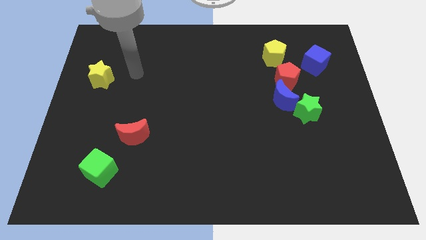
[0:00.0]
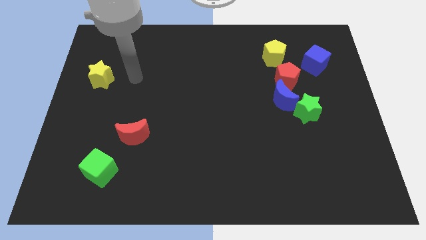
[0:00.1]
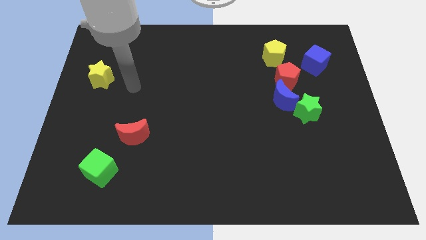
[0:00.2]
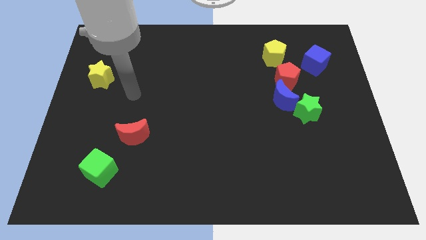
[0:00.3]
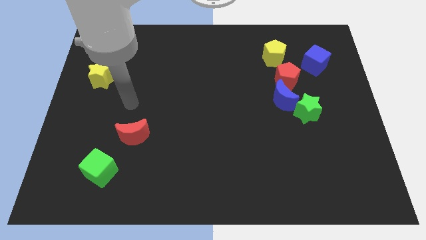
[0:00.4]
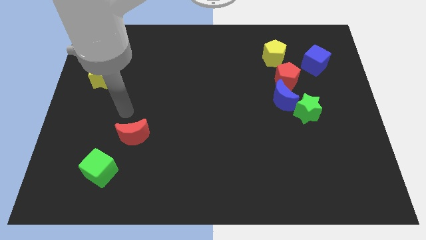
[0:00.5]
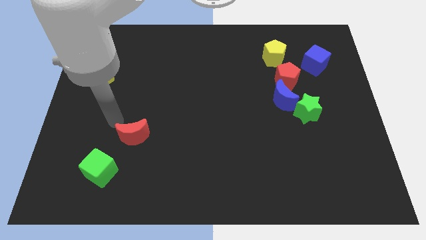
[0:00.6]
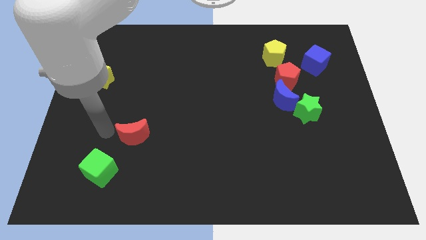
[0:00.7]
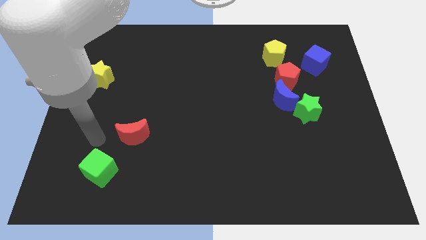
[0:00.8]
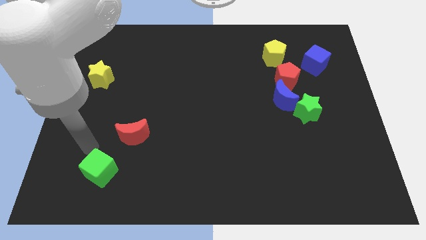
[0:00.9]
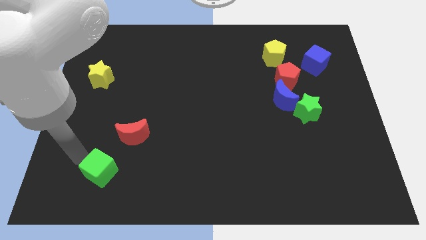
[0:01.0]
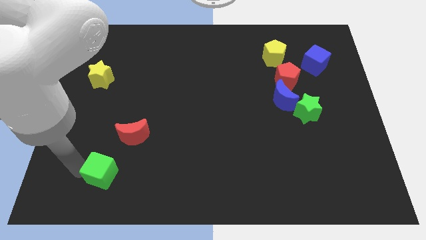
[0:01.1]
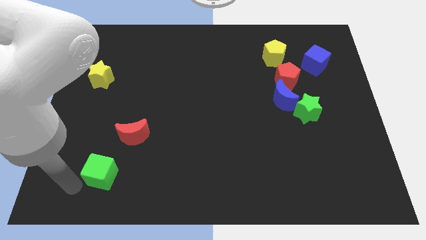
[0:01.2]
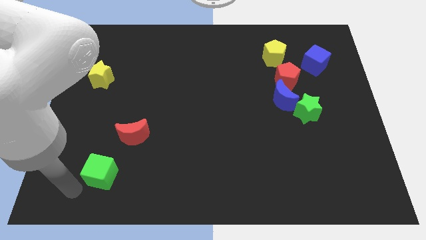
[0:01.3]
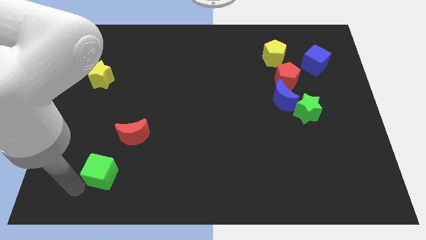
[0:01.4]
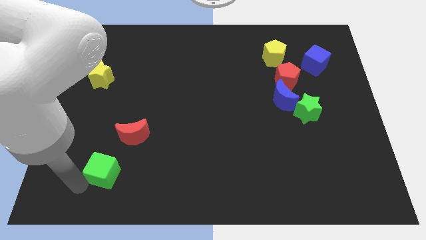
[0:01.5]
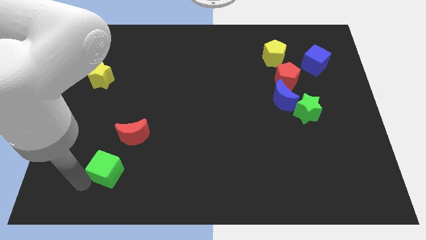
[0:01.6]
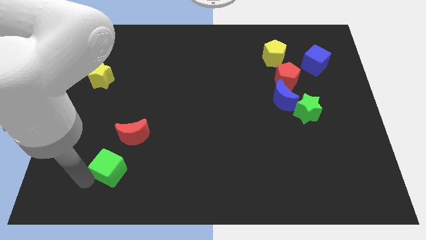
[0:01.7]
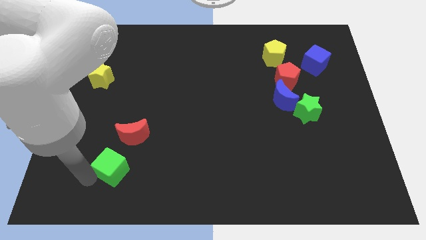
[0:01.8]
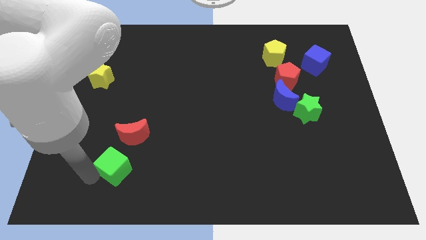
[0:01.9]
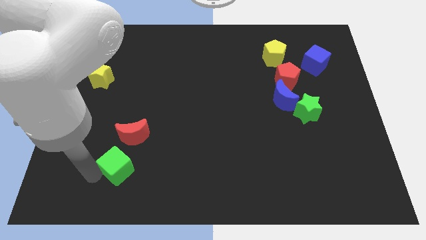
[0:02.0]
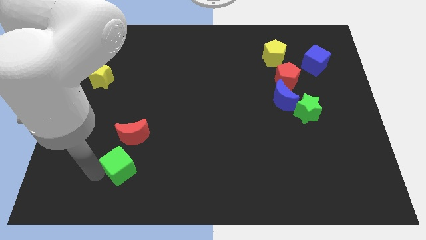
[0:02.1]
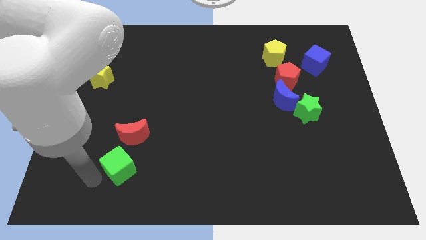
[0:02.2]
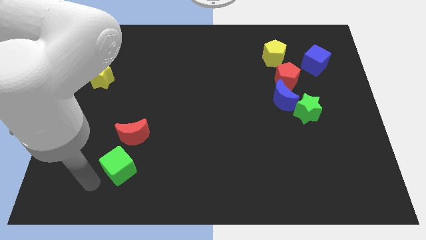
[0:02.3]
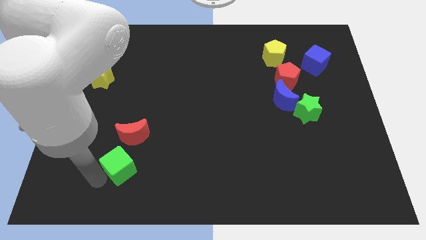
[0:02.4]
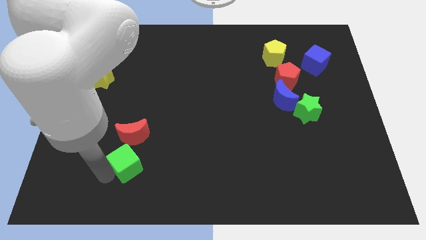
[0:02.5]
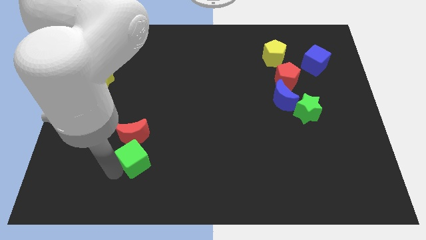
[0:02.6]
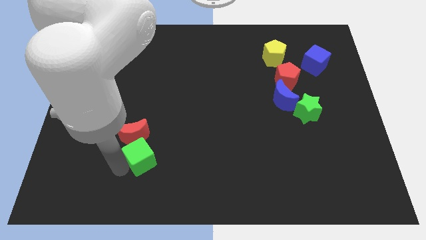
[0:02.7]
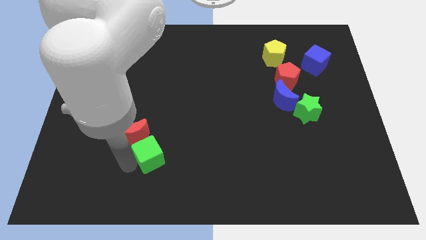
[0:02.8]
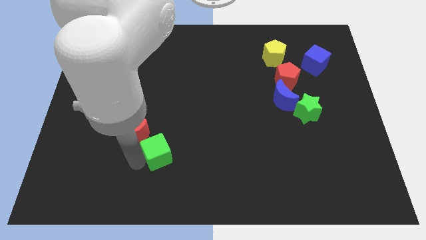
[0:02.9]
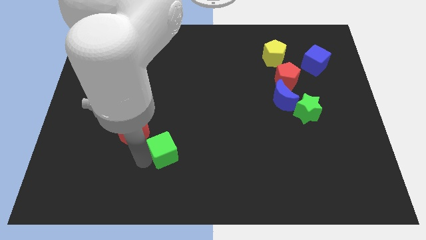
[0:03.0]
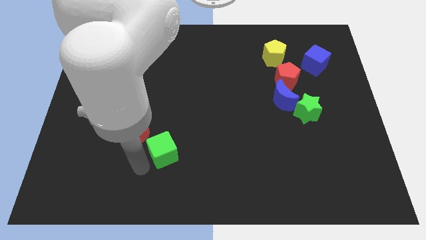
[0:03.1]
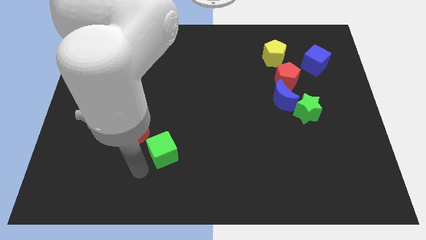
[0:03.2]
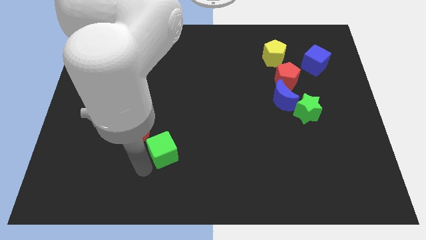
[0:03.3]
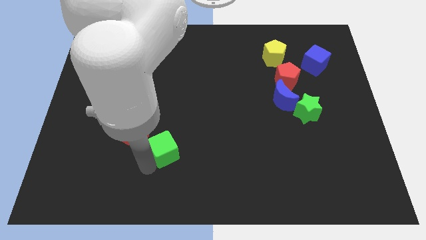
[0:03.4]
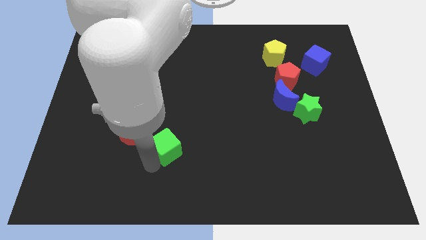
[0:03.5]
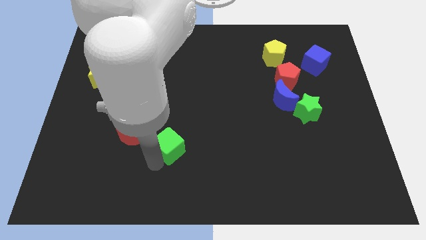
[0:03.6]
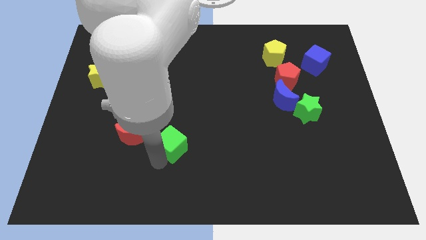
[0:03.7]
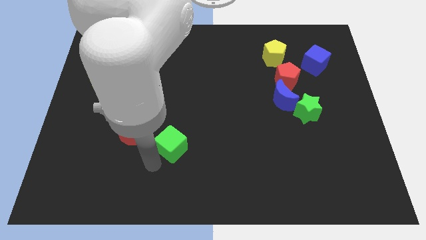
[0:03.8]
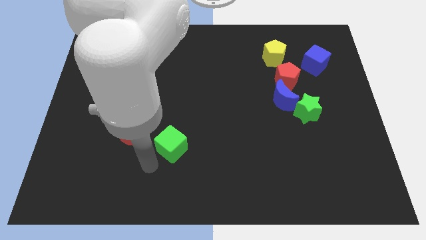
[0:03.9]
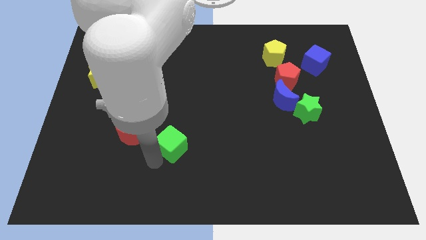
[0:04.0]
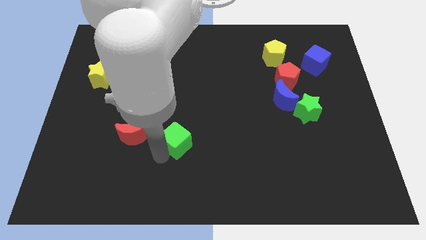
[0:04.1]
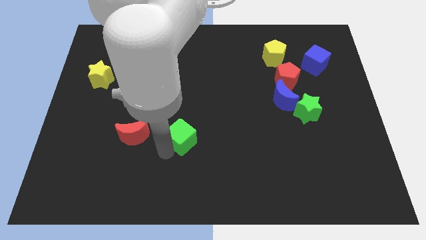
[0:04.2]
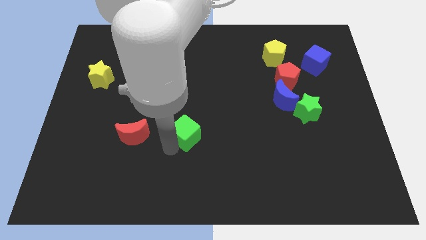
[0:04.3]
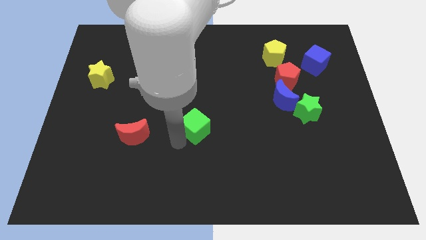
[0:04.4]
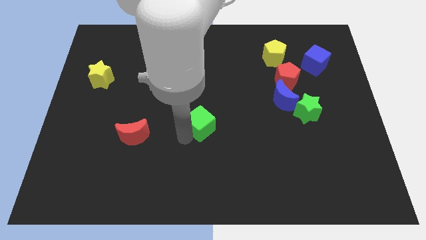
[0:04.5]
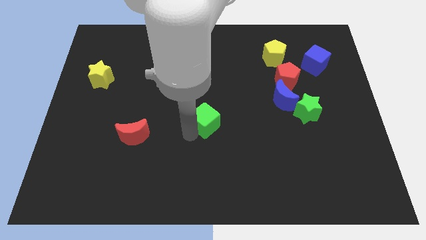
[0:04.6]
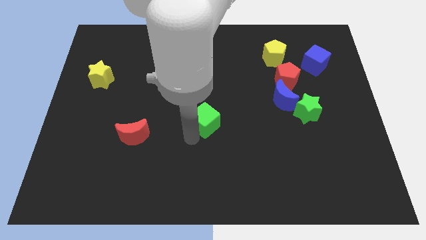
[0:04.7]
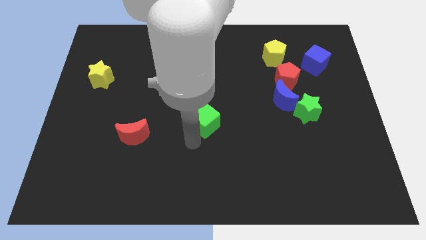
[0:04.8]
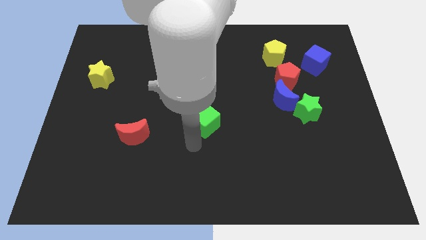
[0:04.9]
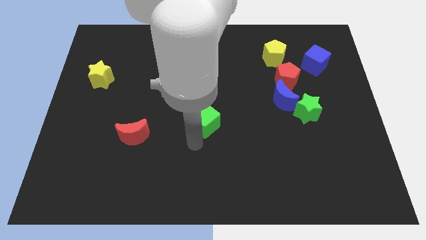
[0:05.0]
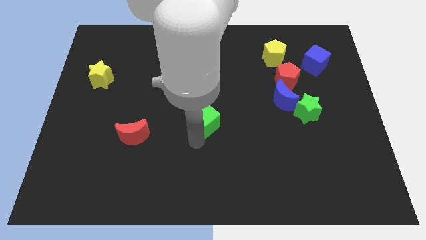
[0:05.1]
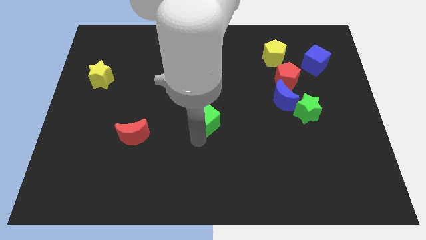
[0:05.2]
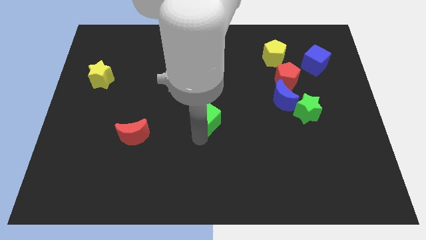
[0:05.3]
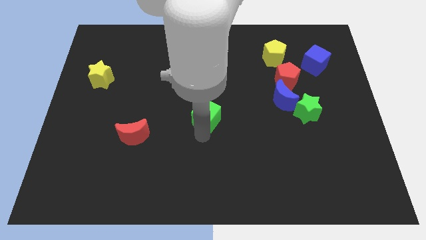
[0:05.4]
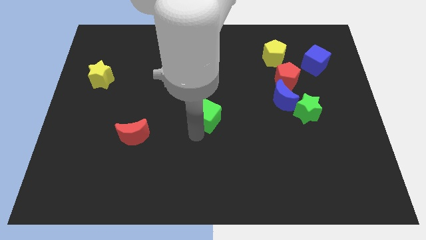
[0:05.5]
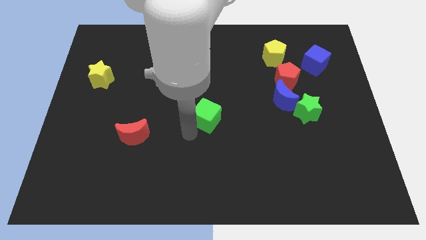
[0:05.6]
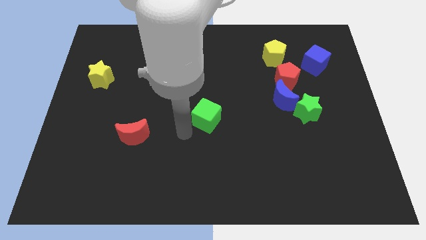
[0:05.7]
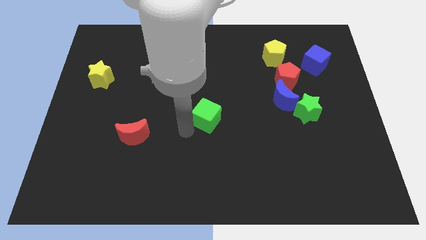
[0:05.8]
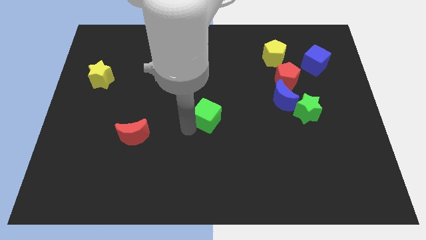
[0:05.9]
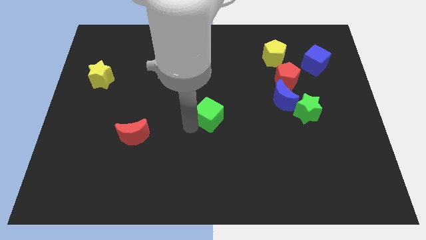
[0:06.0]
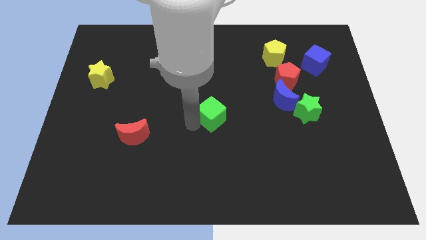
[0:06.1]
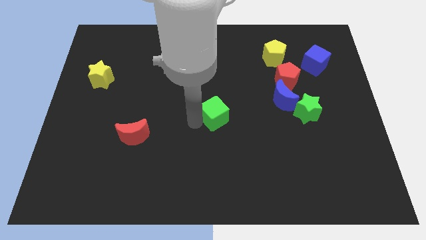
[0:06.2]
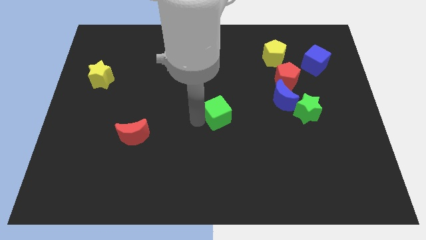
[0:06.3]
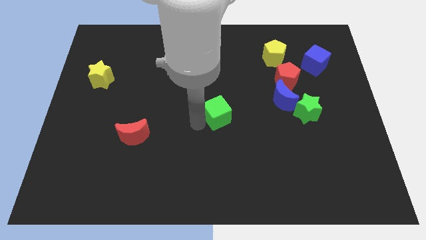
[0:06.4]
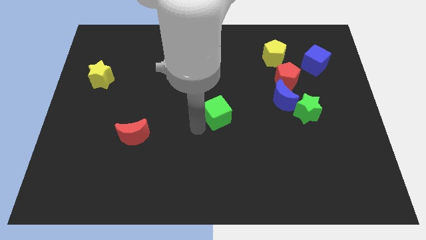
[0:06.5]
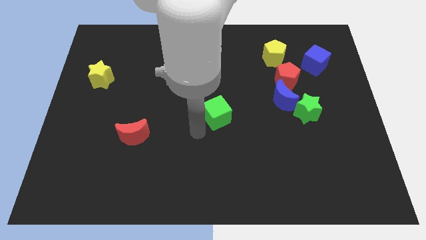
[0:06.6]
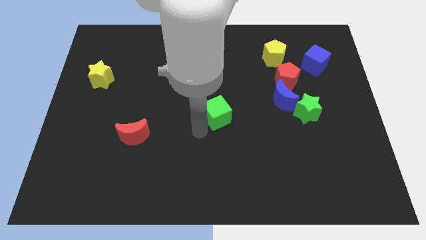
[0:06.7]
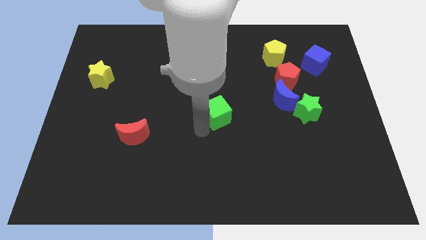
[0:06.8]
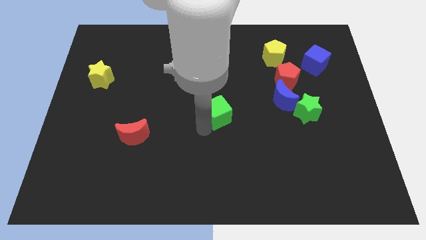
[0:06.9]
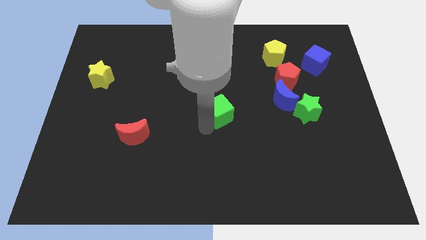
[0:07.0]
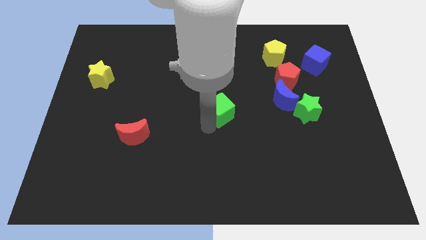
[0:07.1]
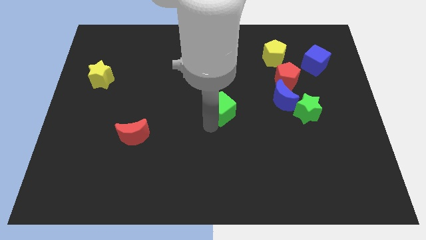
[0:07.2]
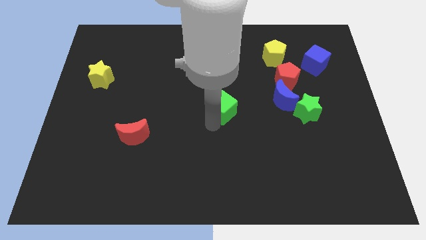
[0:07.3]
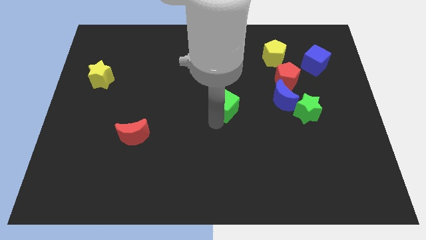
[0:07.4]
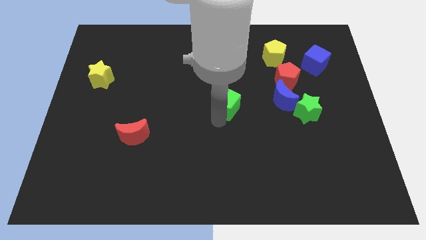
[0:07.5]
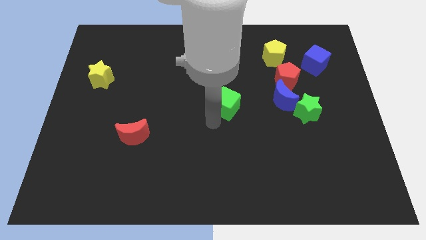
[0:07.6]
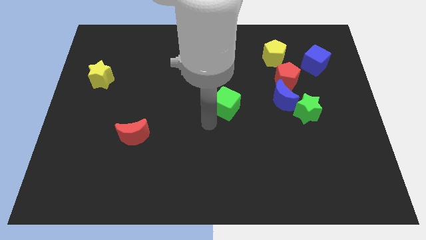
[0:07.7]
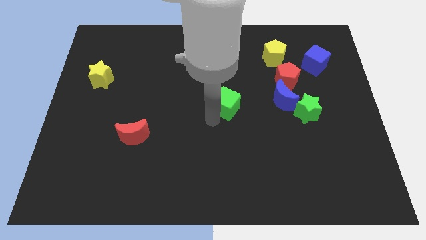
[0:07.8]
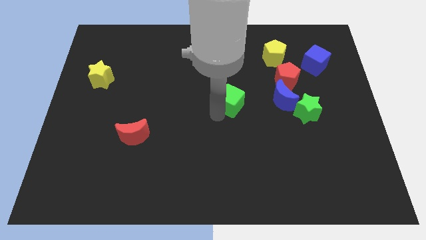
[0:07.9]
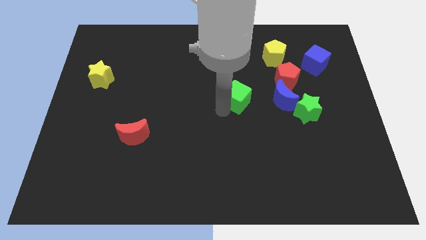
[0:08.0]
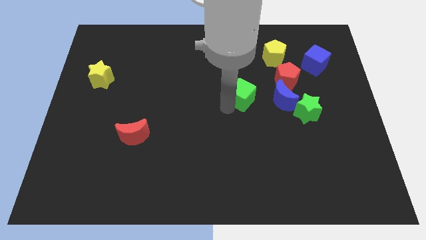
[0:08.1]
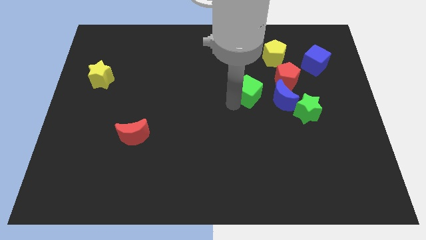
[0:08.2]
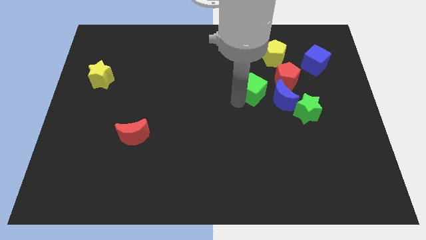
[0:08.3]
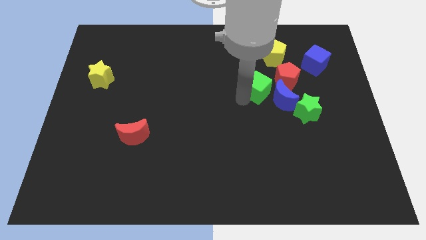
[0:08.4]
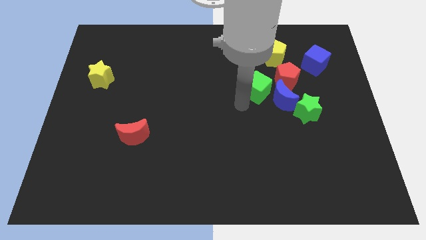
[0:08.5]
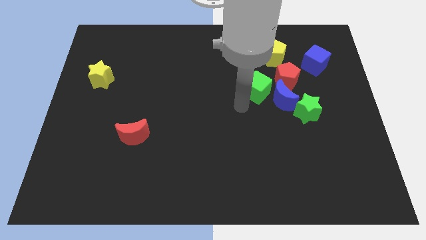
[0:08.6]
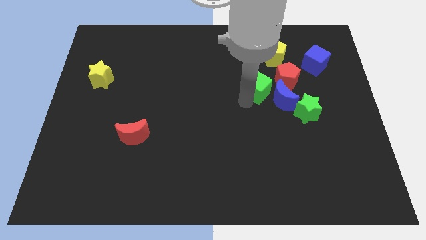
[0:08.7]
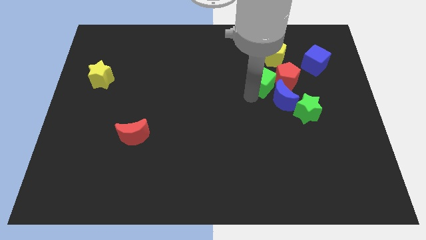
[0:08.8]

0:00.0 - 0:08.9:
slide the green cube above the blue moon
